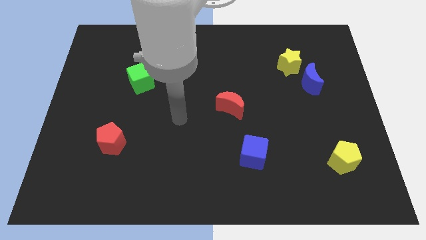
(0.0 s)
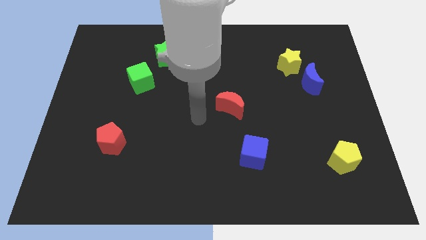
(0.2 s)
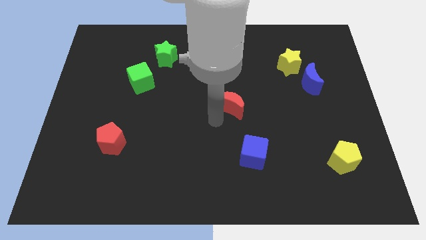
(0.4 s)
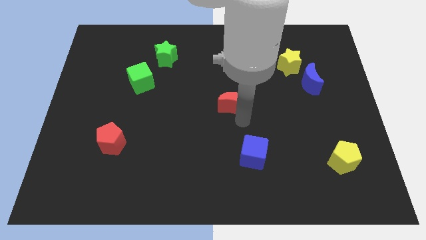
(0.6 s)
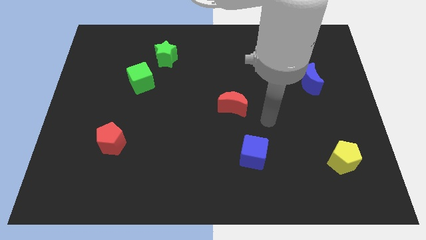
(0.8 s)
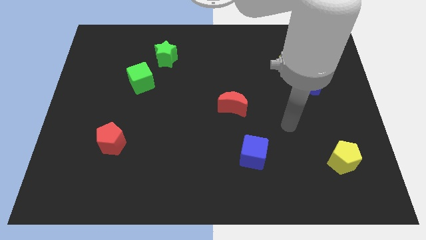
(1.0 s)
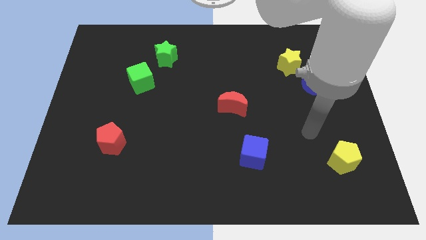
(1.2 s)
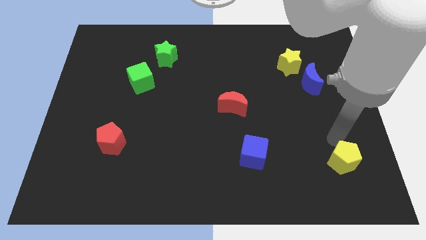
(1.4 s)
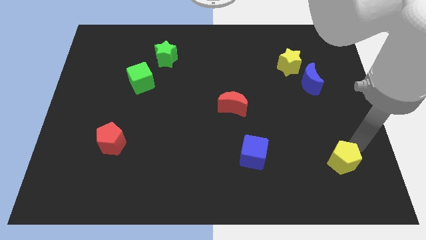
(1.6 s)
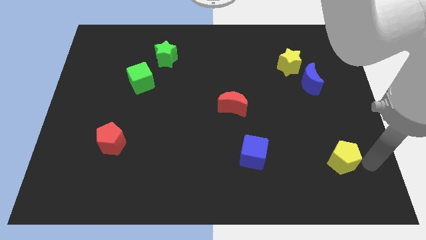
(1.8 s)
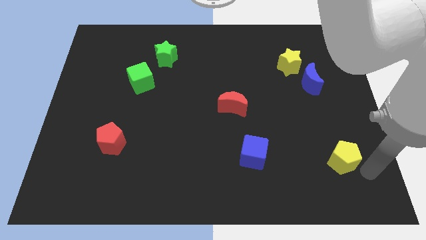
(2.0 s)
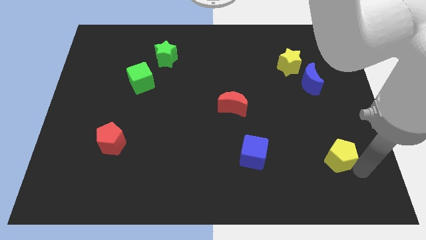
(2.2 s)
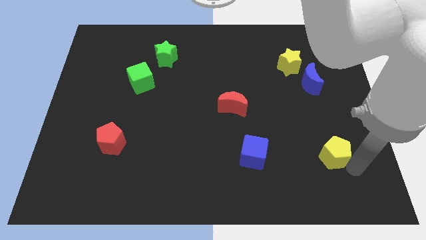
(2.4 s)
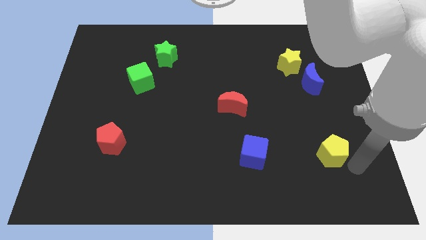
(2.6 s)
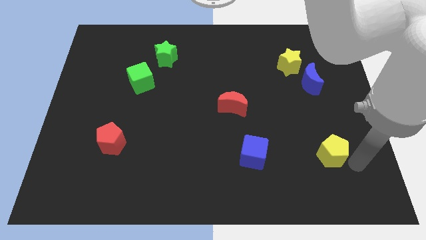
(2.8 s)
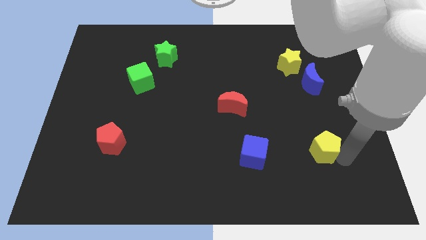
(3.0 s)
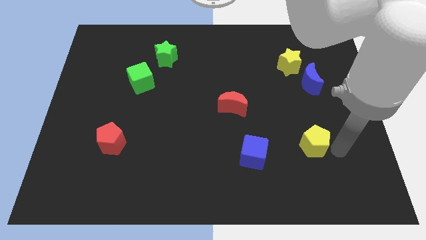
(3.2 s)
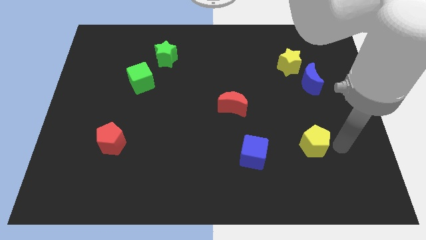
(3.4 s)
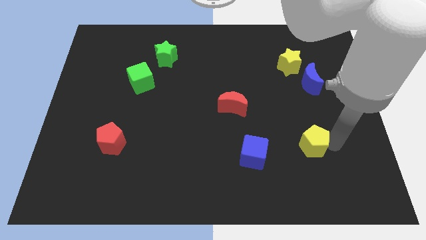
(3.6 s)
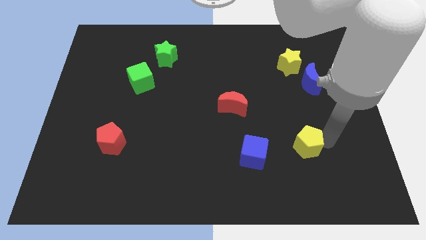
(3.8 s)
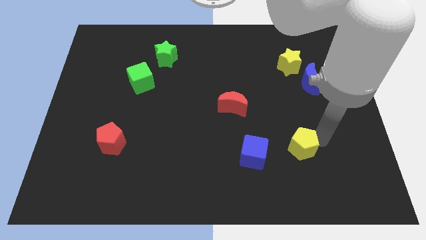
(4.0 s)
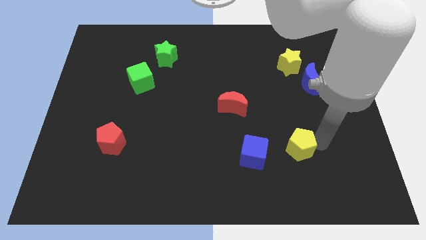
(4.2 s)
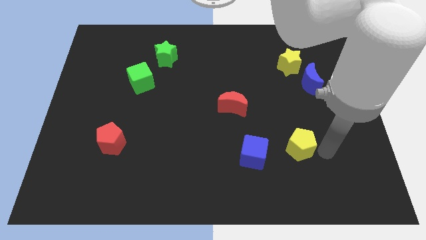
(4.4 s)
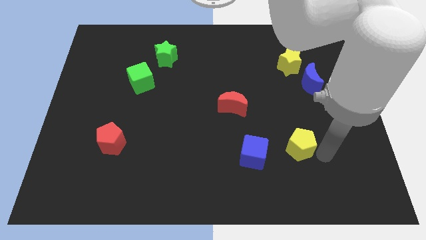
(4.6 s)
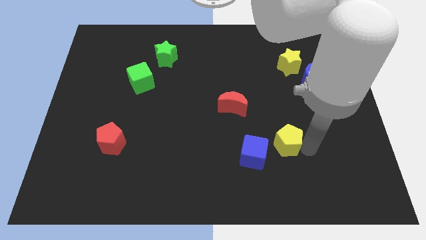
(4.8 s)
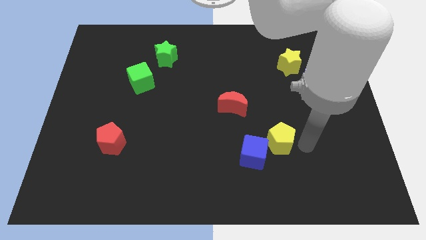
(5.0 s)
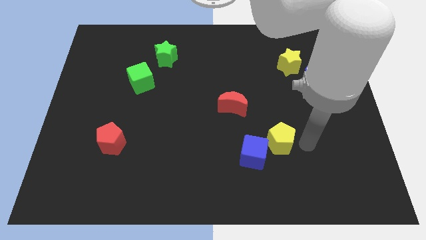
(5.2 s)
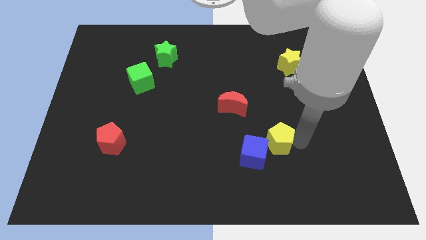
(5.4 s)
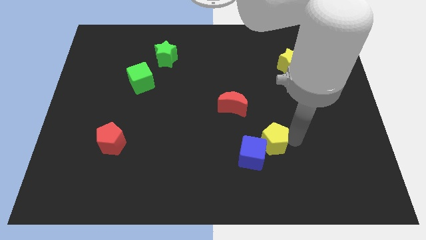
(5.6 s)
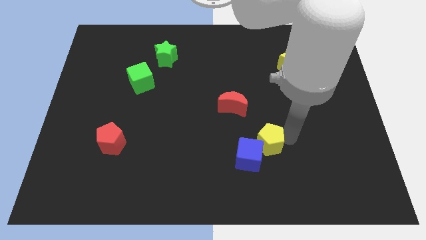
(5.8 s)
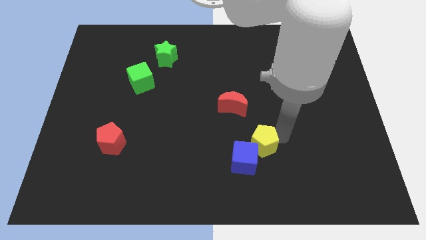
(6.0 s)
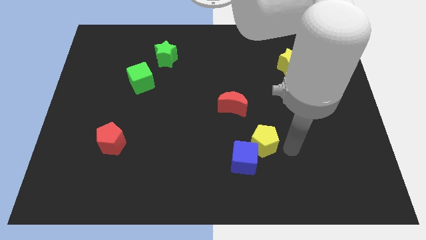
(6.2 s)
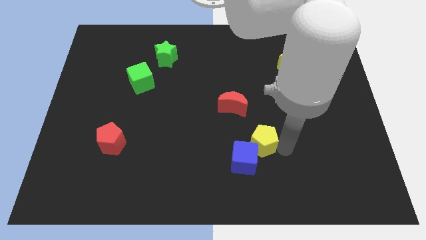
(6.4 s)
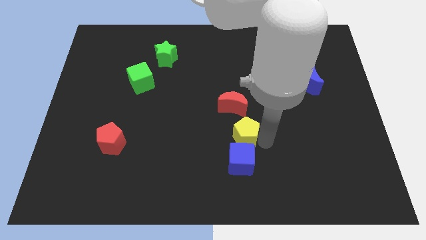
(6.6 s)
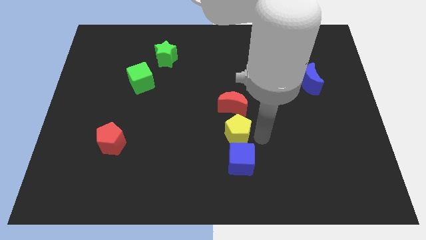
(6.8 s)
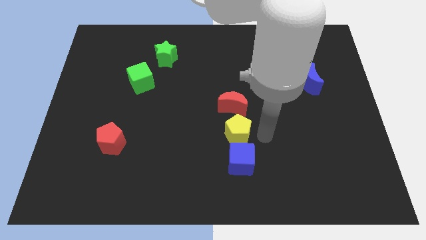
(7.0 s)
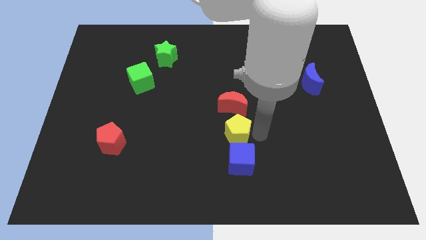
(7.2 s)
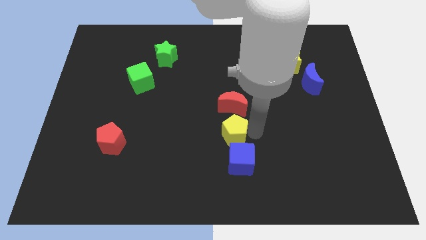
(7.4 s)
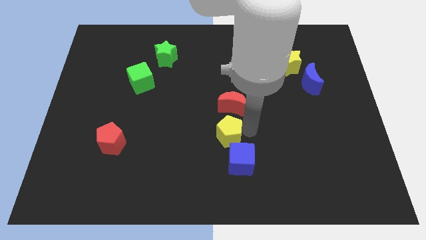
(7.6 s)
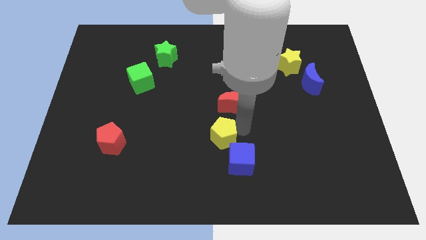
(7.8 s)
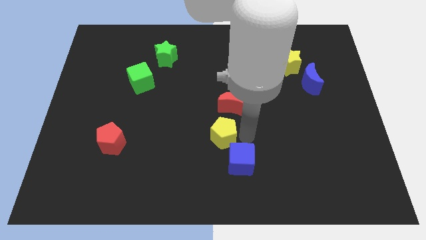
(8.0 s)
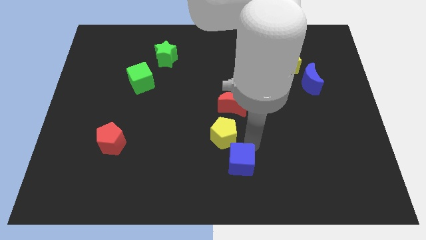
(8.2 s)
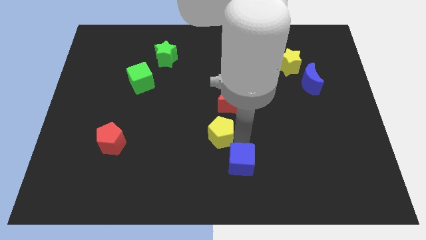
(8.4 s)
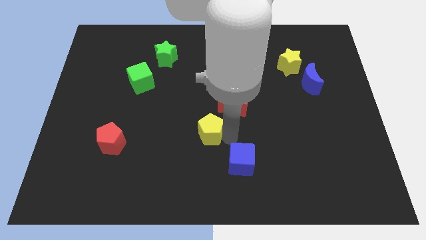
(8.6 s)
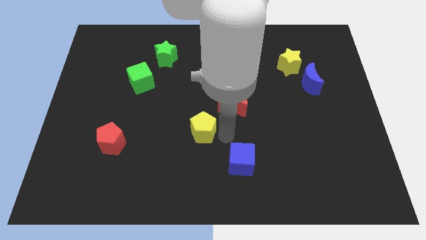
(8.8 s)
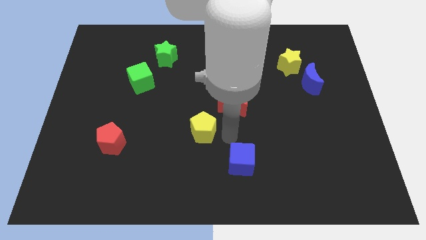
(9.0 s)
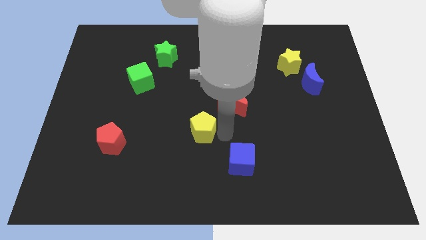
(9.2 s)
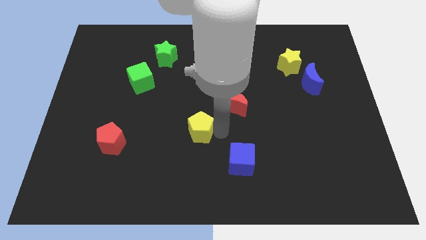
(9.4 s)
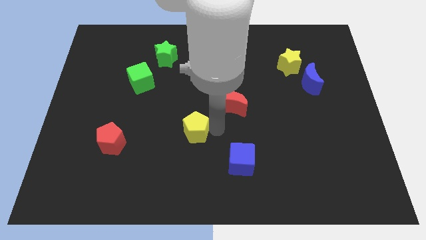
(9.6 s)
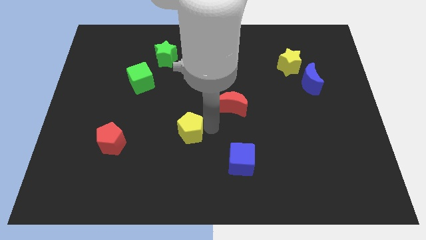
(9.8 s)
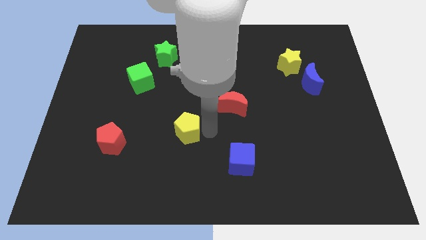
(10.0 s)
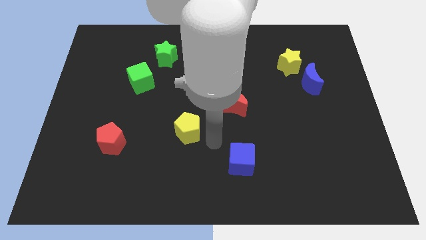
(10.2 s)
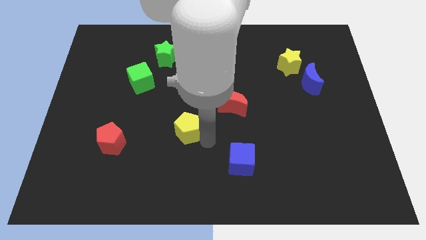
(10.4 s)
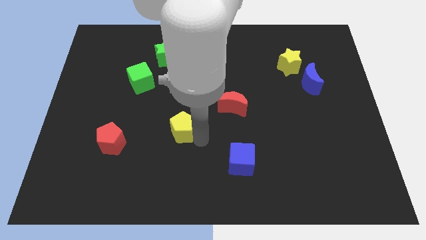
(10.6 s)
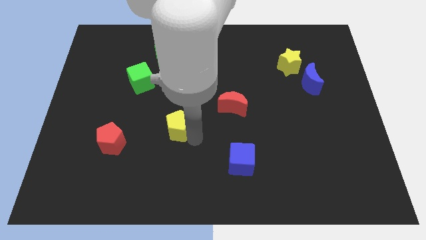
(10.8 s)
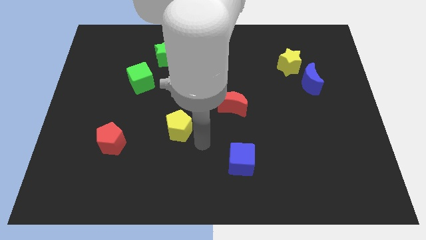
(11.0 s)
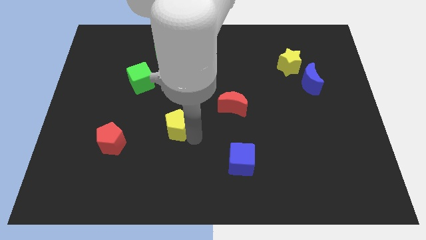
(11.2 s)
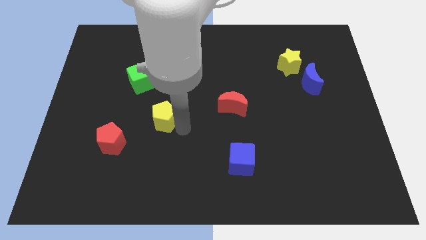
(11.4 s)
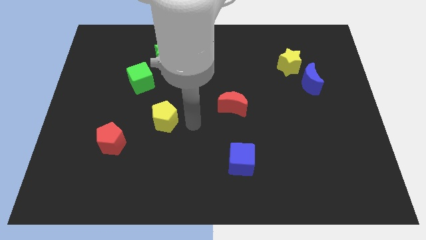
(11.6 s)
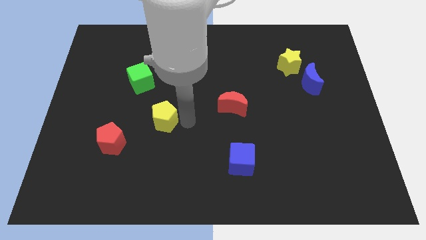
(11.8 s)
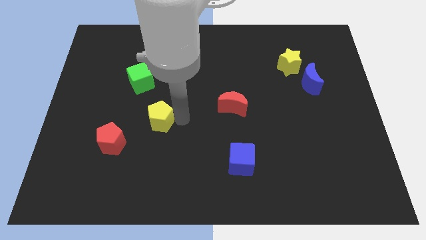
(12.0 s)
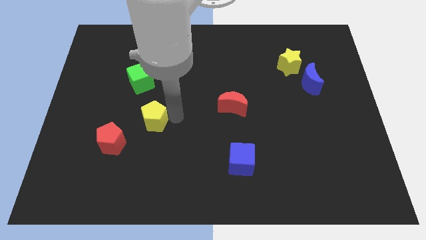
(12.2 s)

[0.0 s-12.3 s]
move the yellow pentagon to the bottom of the green cube
